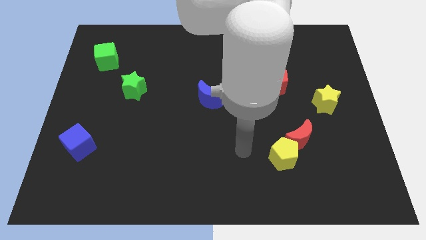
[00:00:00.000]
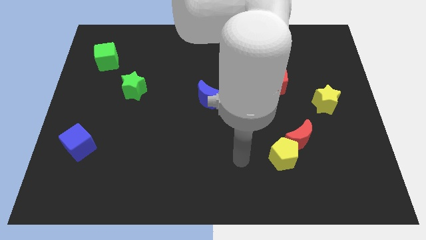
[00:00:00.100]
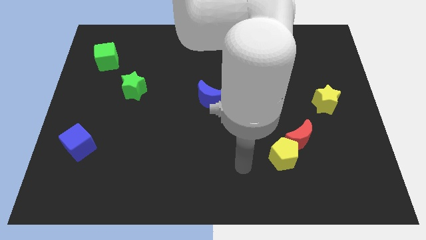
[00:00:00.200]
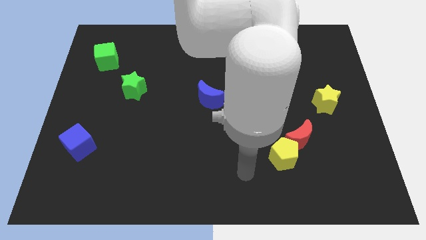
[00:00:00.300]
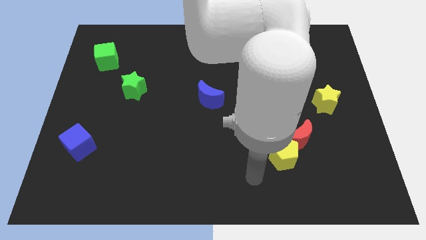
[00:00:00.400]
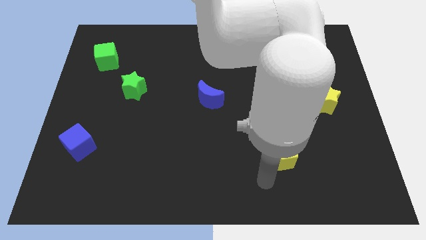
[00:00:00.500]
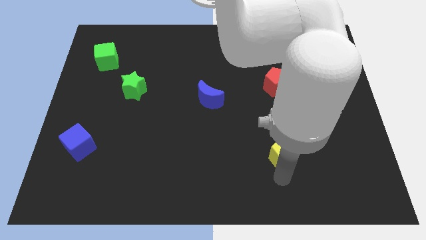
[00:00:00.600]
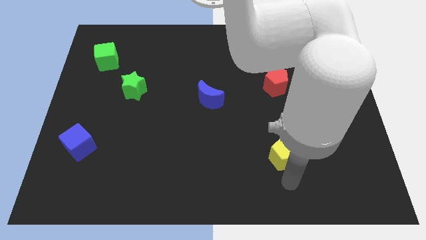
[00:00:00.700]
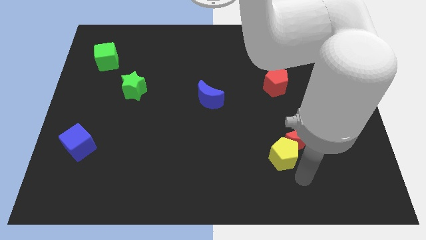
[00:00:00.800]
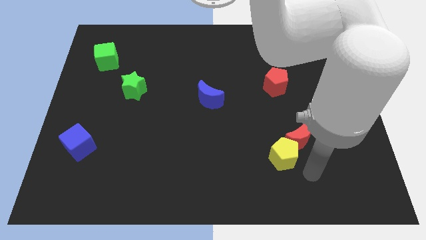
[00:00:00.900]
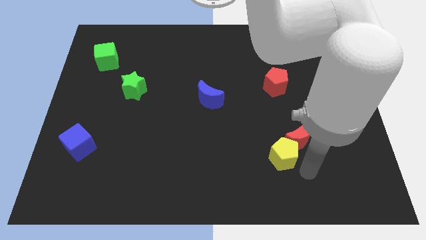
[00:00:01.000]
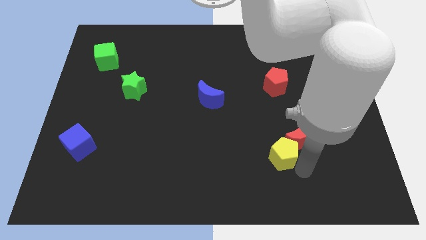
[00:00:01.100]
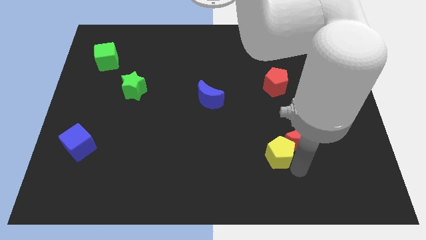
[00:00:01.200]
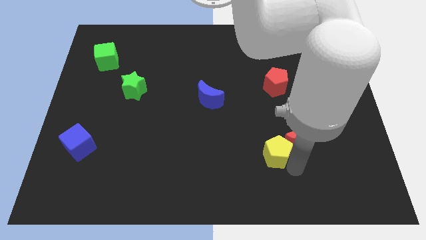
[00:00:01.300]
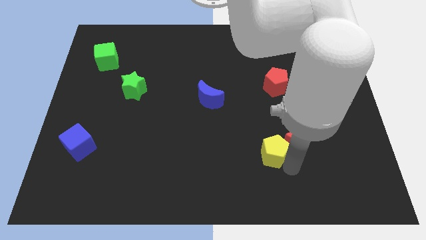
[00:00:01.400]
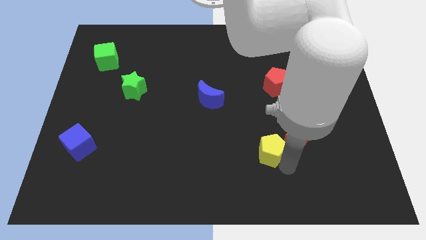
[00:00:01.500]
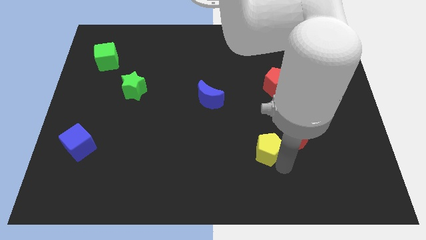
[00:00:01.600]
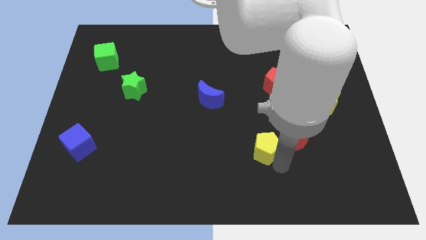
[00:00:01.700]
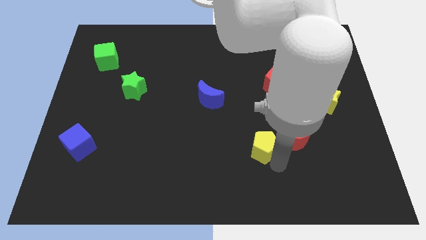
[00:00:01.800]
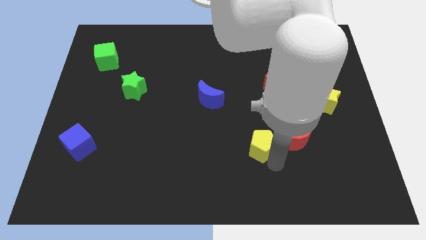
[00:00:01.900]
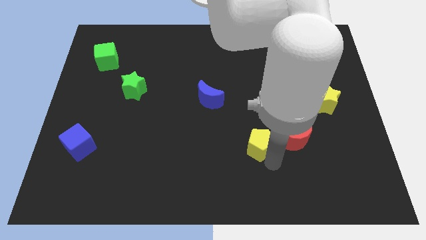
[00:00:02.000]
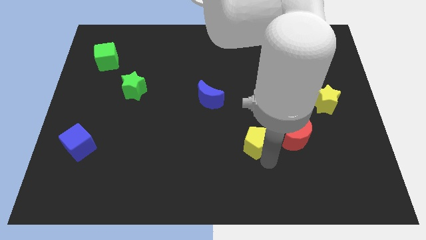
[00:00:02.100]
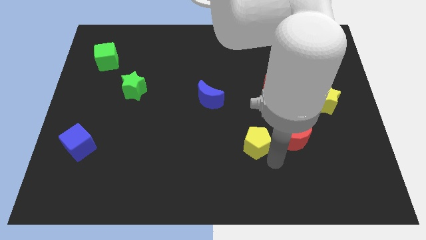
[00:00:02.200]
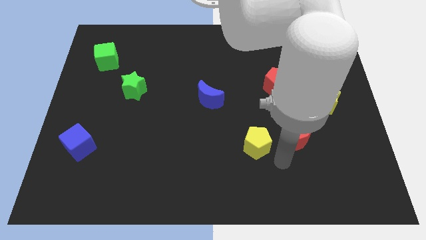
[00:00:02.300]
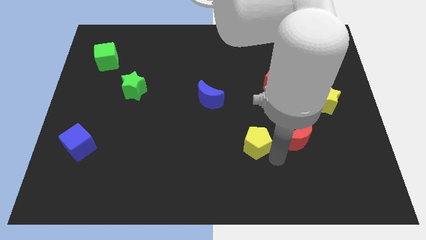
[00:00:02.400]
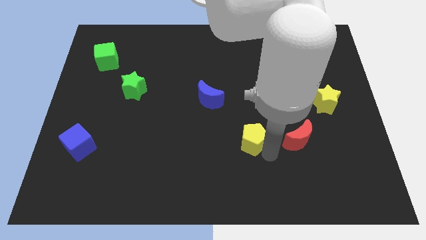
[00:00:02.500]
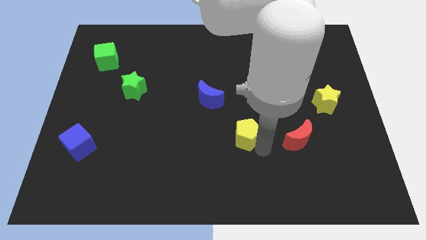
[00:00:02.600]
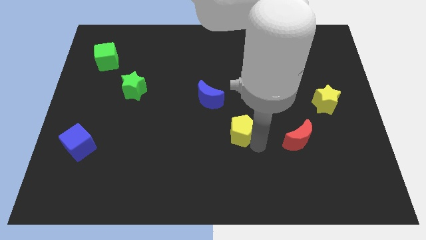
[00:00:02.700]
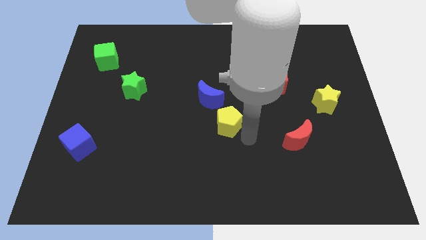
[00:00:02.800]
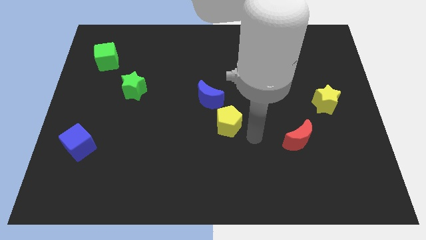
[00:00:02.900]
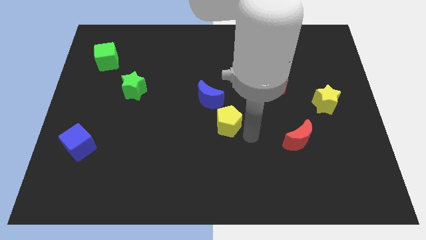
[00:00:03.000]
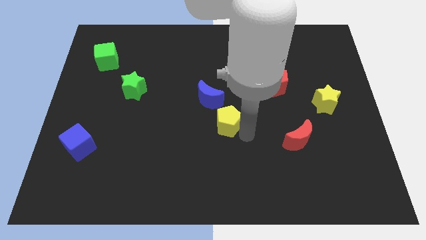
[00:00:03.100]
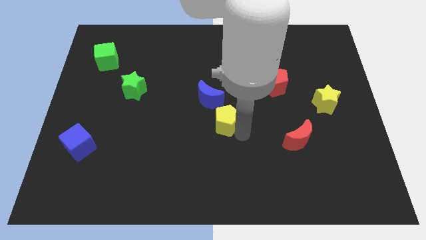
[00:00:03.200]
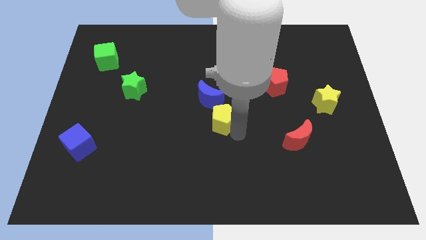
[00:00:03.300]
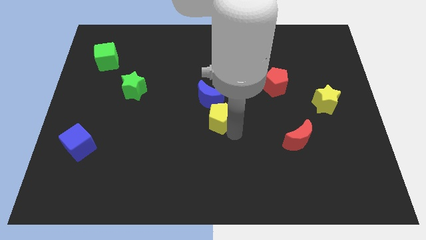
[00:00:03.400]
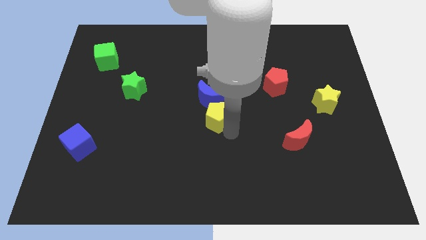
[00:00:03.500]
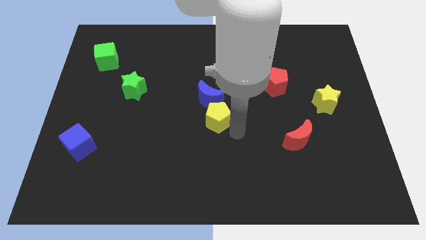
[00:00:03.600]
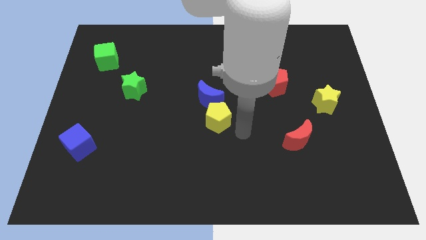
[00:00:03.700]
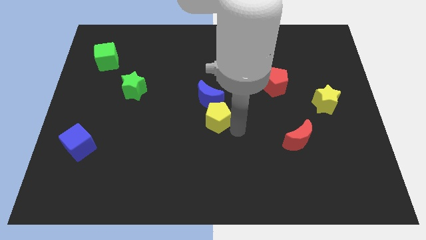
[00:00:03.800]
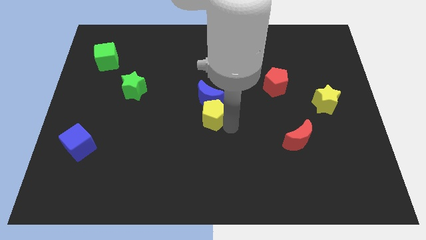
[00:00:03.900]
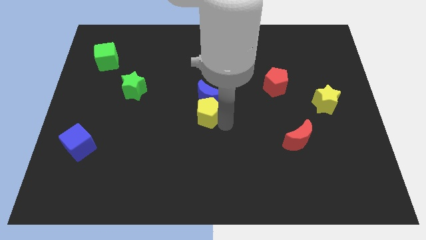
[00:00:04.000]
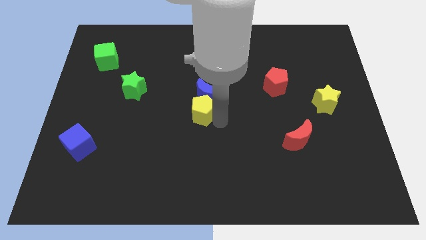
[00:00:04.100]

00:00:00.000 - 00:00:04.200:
move the yellow pentagon upwards and left diagonally

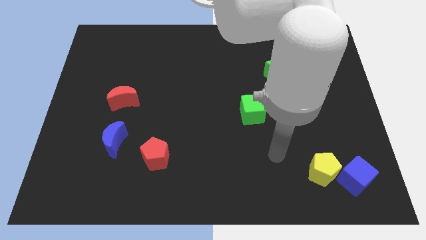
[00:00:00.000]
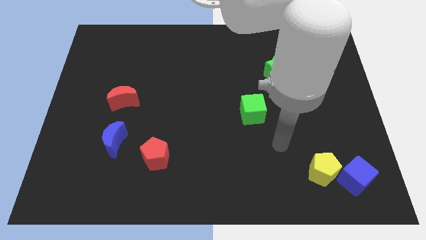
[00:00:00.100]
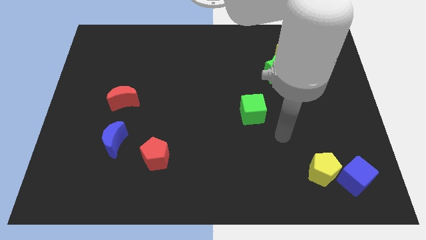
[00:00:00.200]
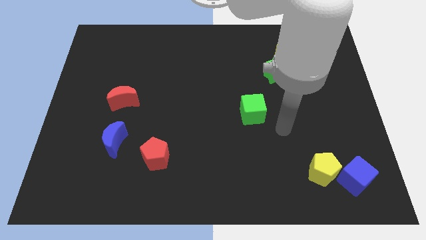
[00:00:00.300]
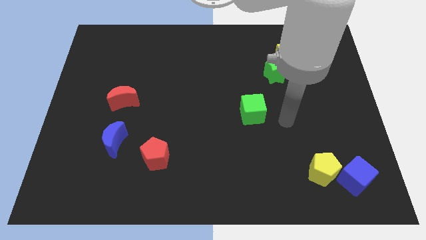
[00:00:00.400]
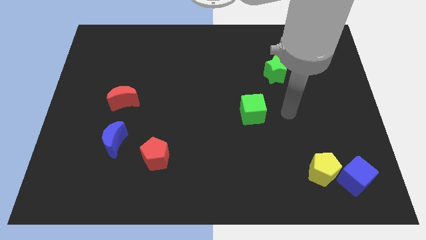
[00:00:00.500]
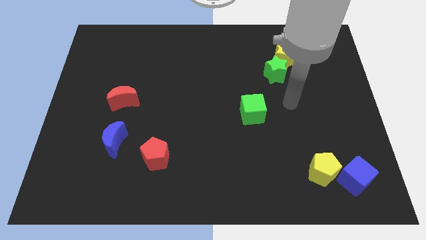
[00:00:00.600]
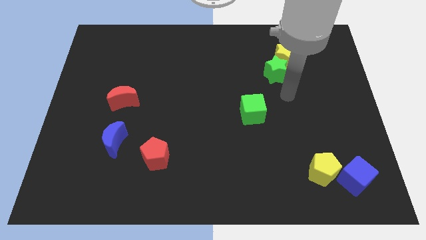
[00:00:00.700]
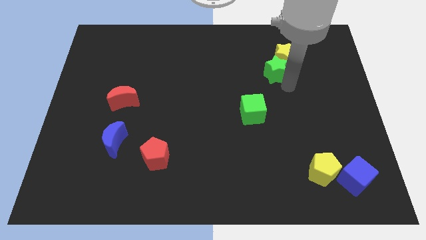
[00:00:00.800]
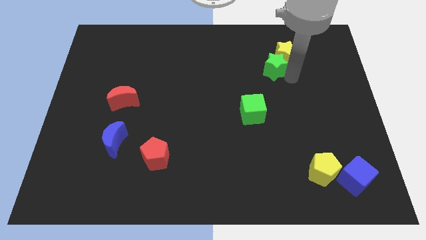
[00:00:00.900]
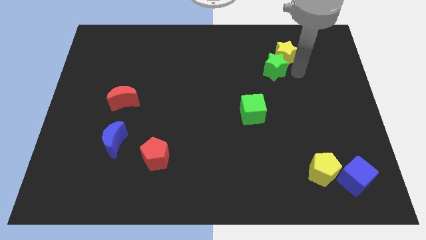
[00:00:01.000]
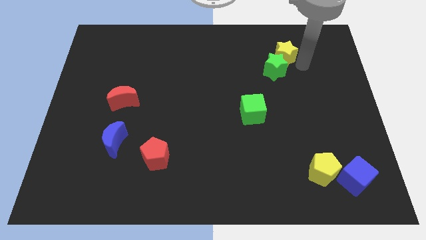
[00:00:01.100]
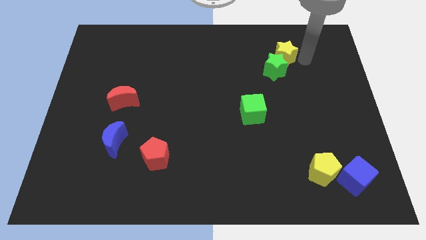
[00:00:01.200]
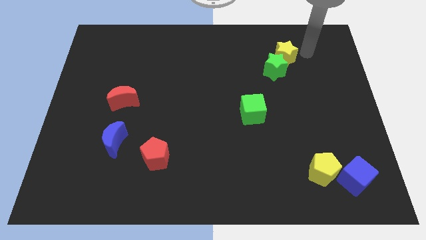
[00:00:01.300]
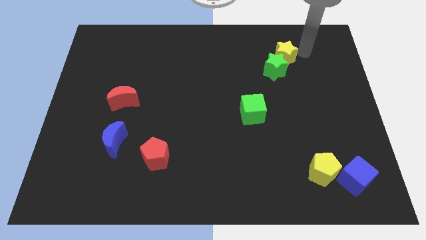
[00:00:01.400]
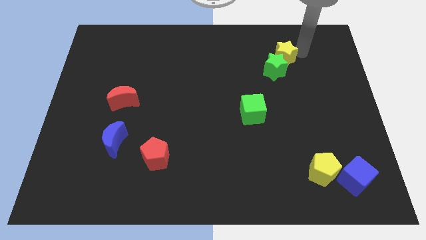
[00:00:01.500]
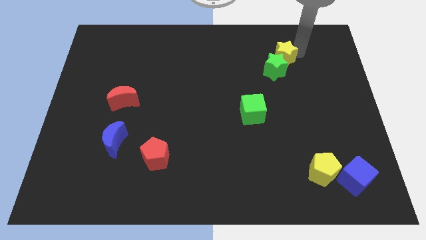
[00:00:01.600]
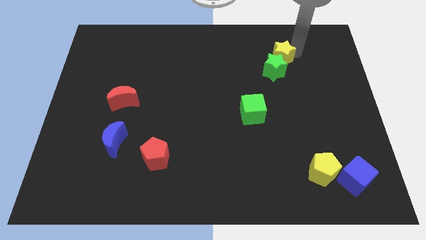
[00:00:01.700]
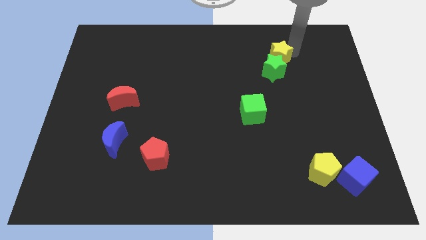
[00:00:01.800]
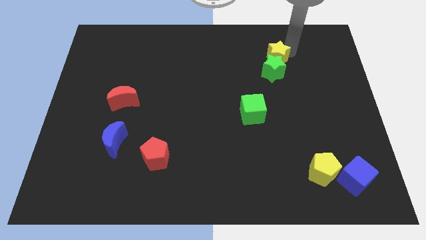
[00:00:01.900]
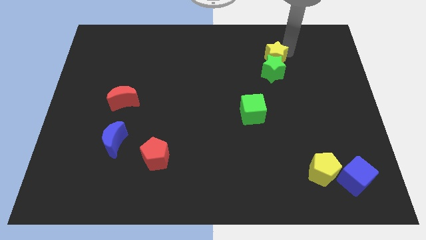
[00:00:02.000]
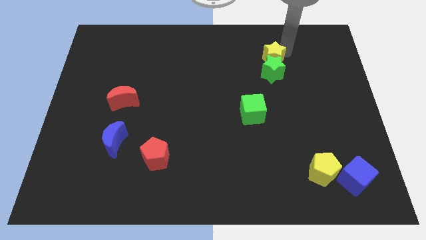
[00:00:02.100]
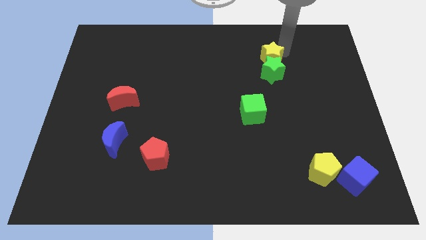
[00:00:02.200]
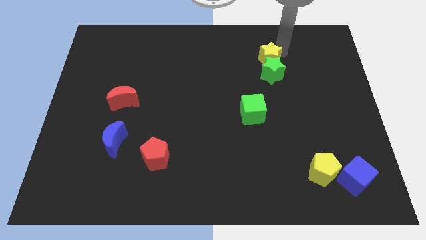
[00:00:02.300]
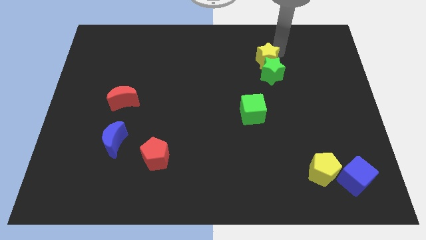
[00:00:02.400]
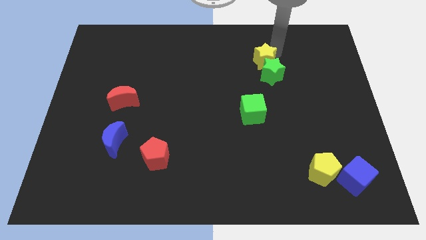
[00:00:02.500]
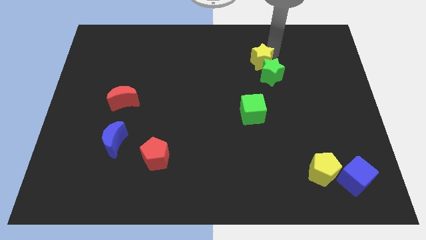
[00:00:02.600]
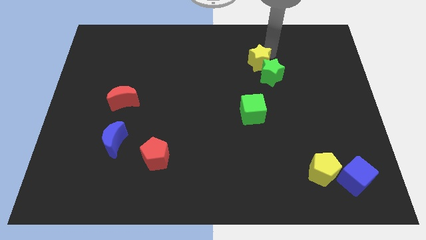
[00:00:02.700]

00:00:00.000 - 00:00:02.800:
slightly push the yellow star left

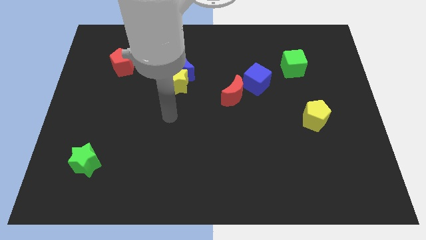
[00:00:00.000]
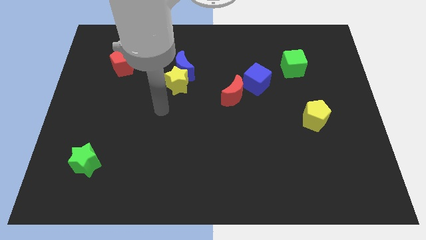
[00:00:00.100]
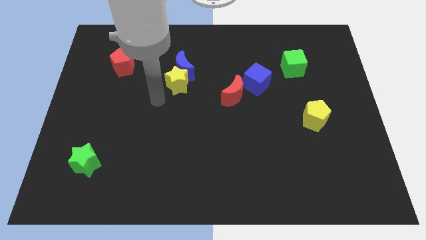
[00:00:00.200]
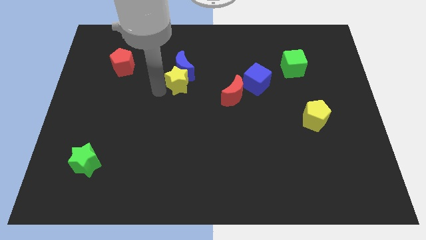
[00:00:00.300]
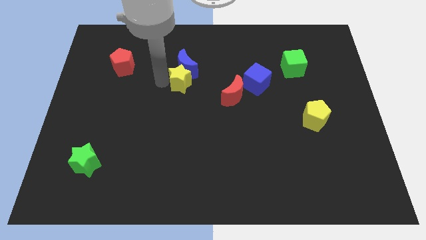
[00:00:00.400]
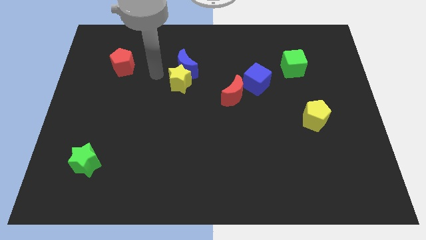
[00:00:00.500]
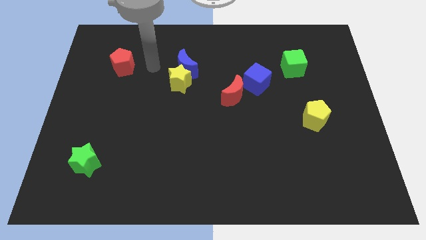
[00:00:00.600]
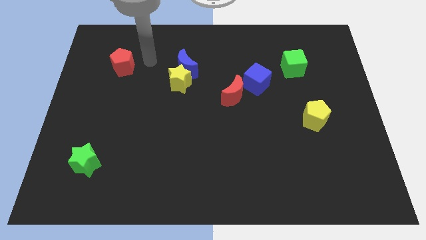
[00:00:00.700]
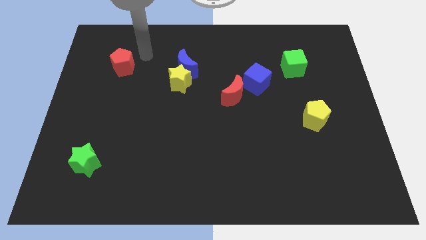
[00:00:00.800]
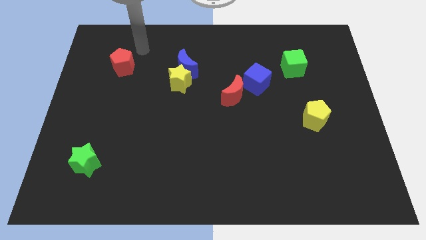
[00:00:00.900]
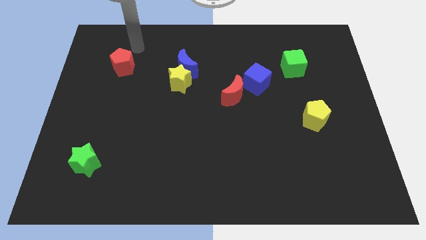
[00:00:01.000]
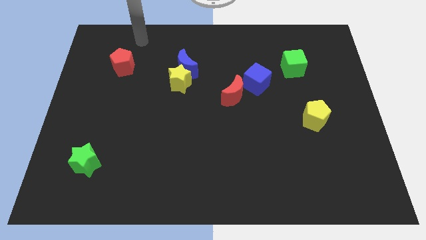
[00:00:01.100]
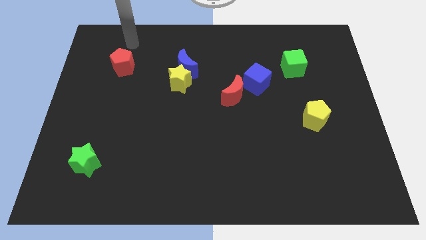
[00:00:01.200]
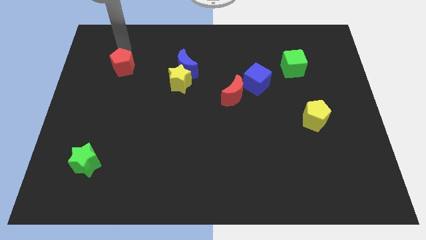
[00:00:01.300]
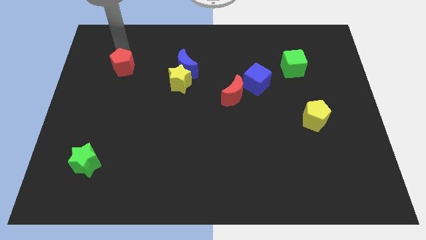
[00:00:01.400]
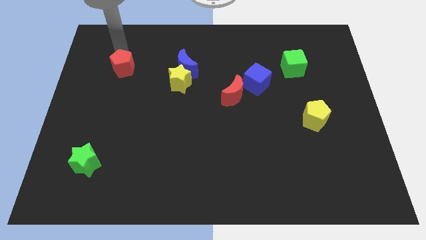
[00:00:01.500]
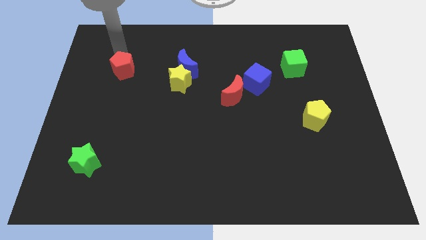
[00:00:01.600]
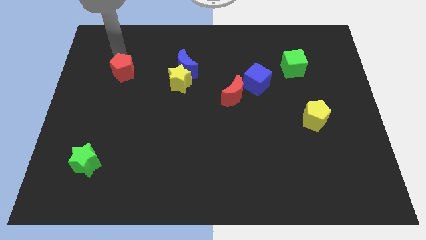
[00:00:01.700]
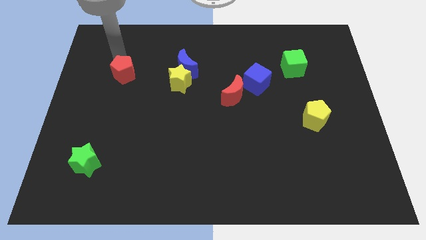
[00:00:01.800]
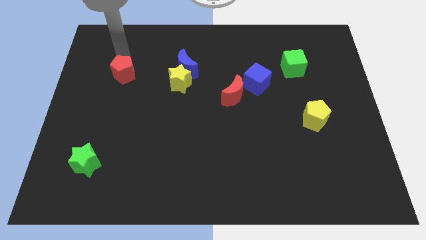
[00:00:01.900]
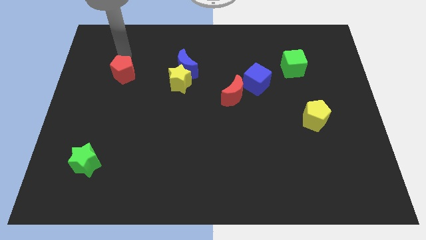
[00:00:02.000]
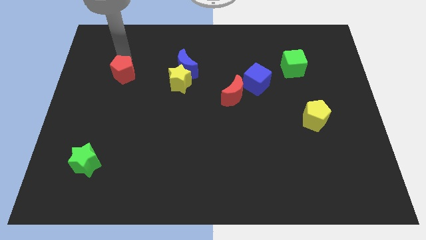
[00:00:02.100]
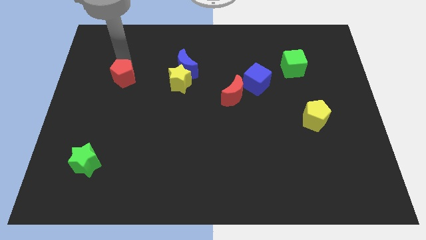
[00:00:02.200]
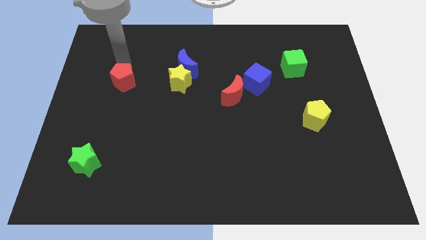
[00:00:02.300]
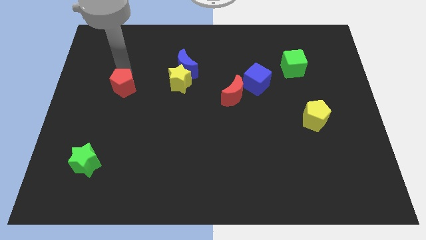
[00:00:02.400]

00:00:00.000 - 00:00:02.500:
slide the red pentagon a bit downwards
